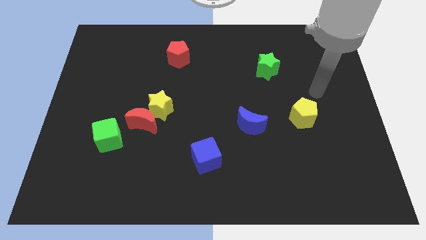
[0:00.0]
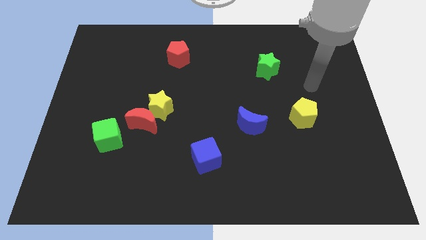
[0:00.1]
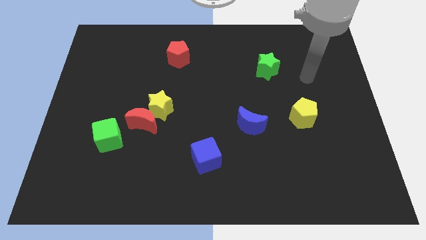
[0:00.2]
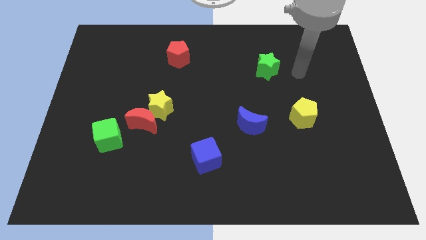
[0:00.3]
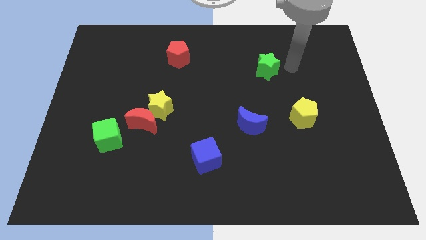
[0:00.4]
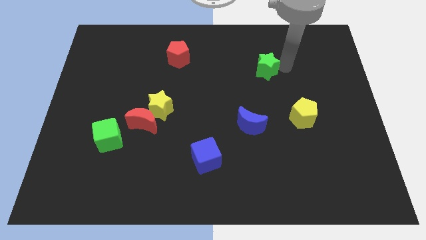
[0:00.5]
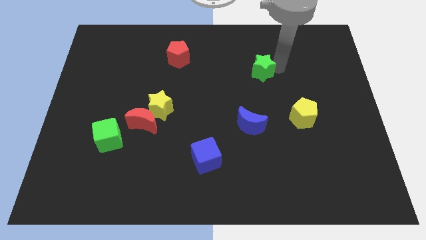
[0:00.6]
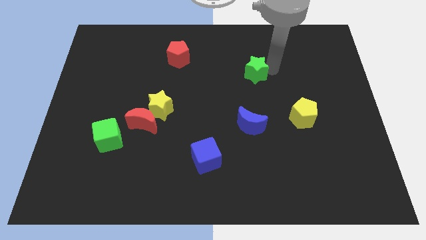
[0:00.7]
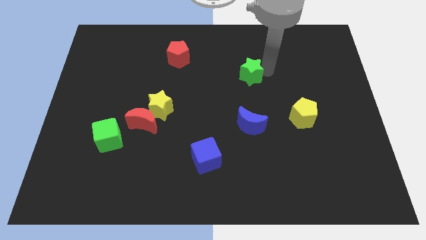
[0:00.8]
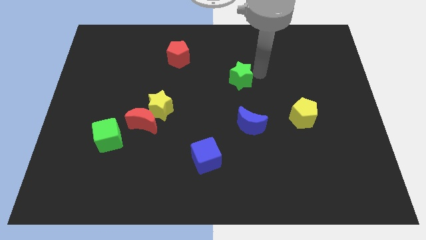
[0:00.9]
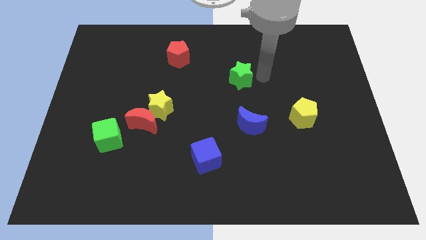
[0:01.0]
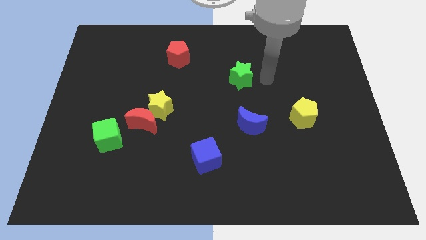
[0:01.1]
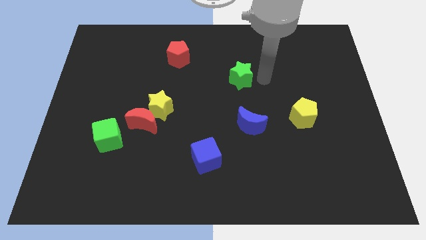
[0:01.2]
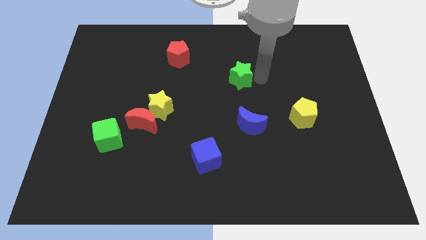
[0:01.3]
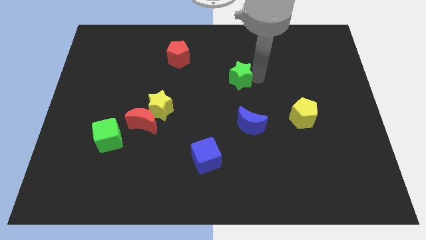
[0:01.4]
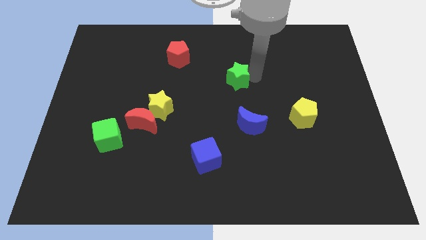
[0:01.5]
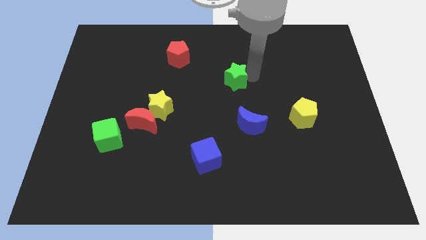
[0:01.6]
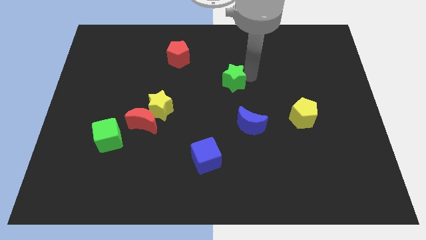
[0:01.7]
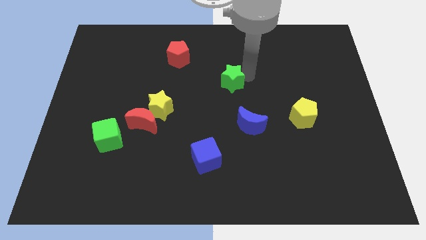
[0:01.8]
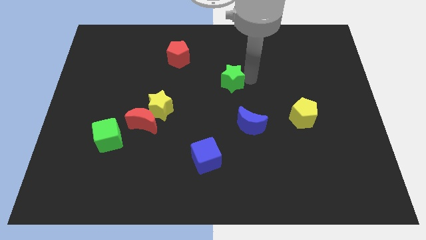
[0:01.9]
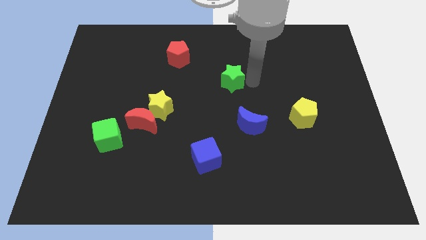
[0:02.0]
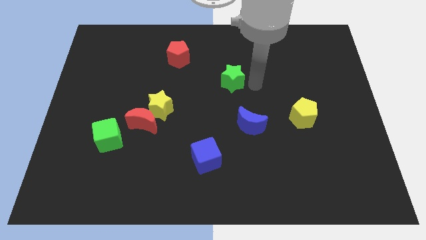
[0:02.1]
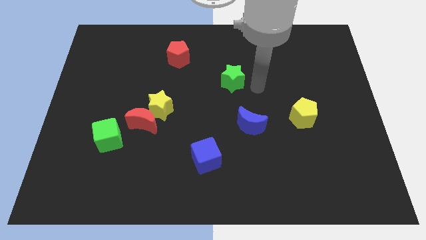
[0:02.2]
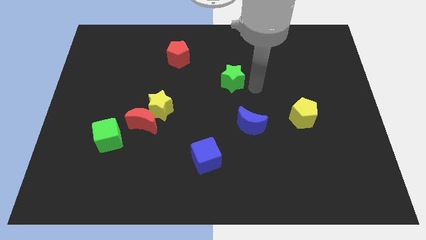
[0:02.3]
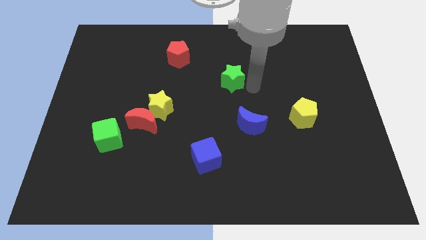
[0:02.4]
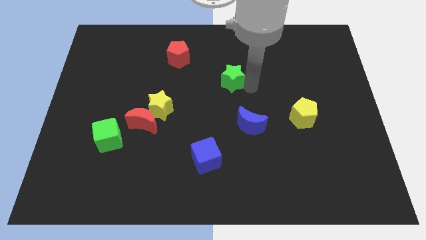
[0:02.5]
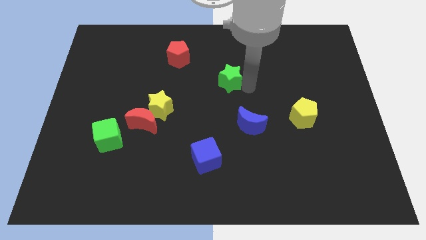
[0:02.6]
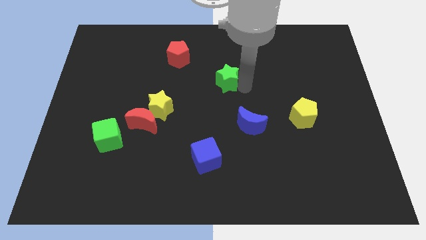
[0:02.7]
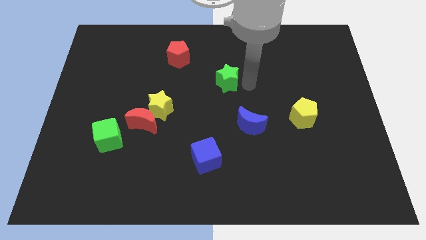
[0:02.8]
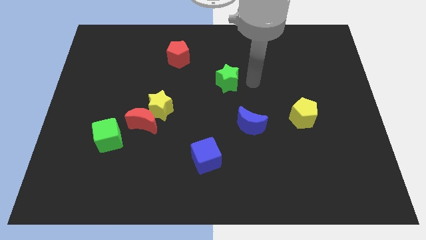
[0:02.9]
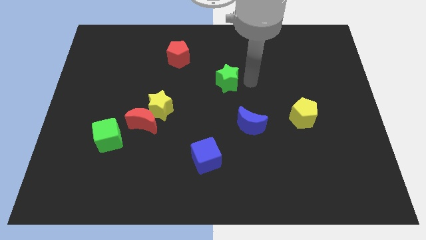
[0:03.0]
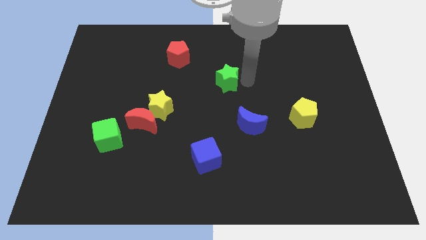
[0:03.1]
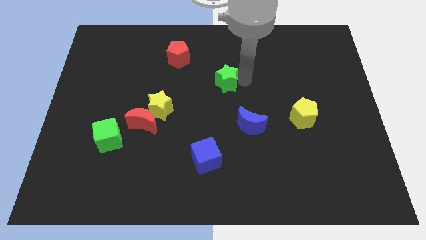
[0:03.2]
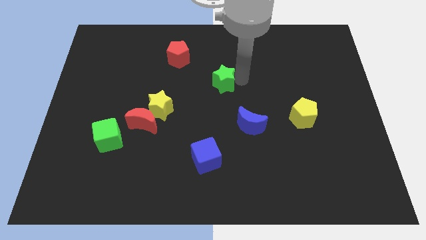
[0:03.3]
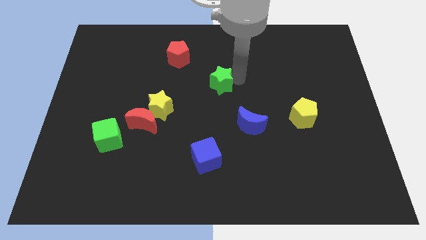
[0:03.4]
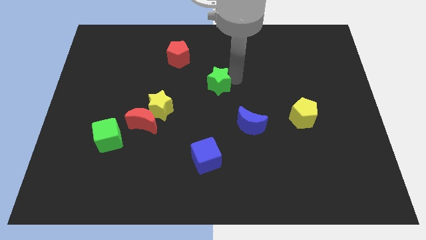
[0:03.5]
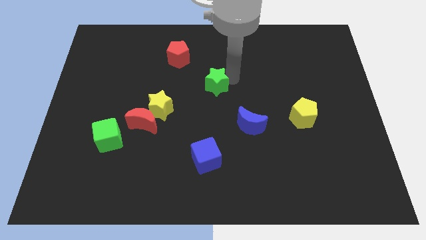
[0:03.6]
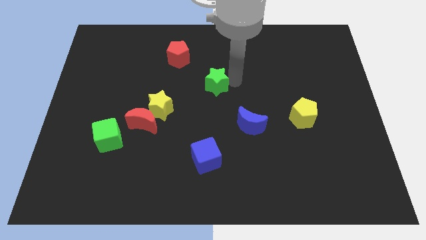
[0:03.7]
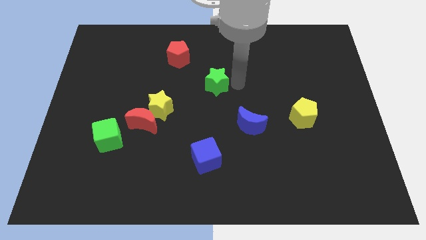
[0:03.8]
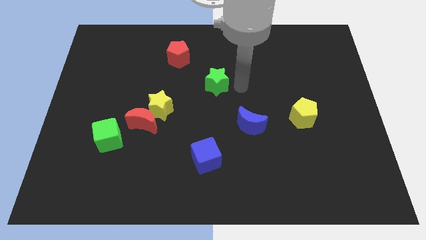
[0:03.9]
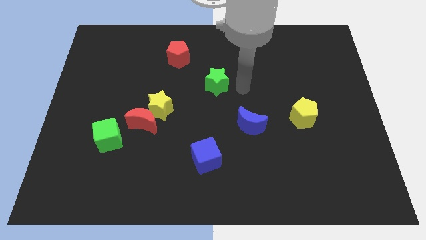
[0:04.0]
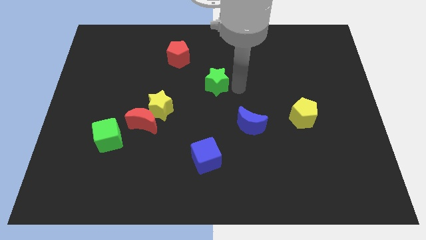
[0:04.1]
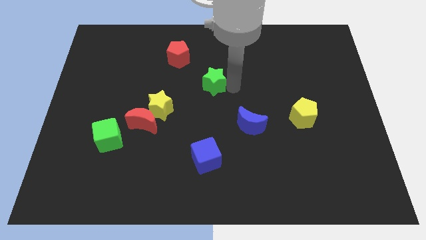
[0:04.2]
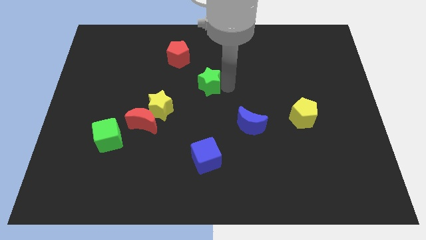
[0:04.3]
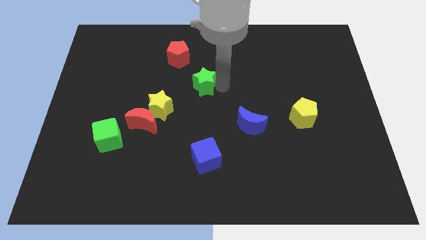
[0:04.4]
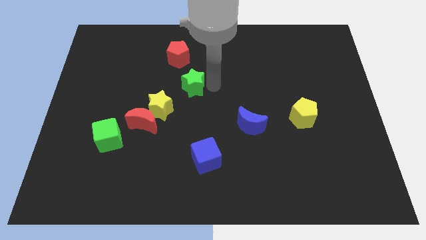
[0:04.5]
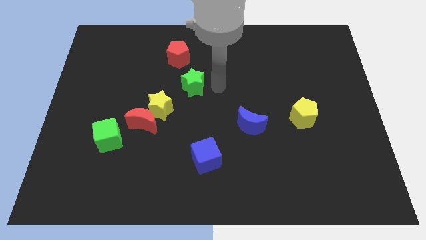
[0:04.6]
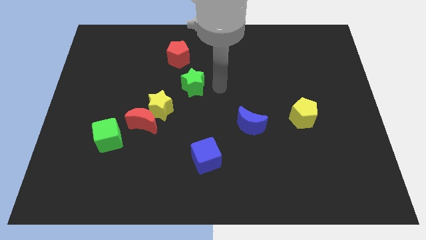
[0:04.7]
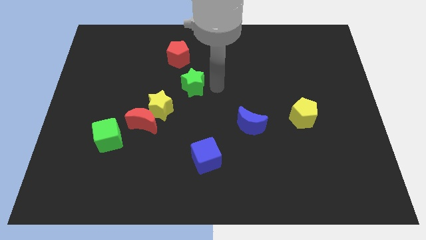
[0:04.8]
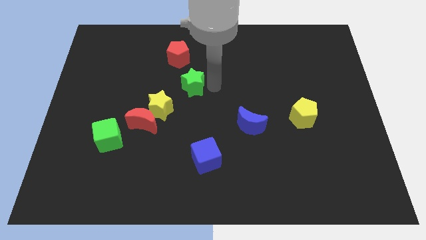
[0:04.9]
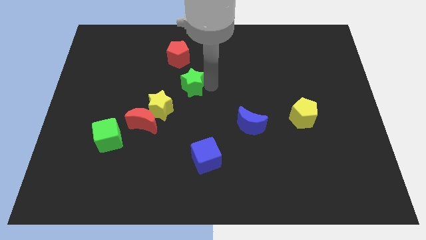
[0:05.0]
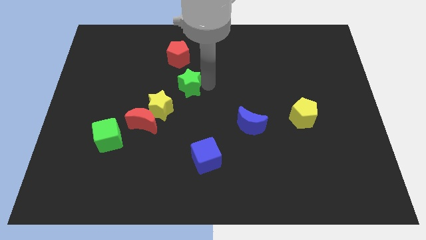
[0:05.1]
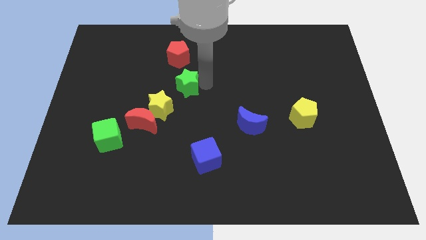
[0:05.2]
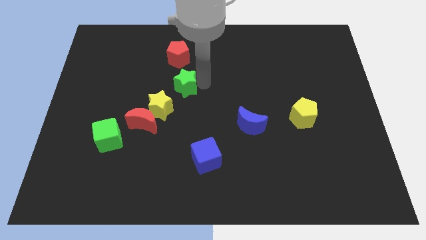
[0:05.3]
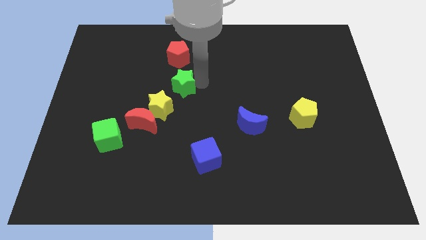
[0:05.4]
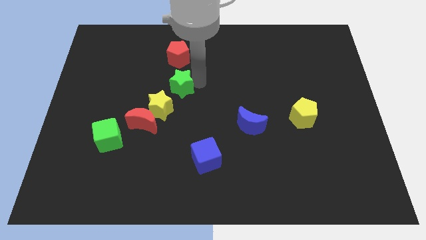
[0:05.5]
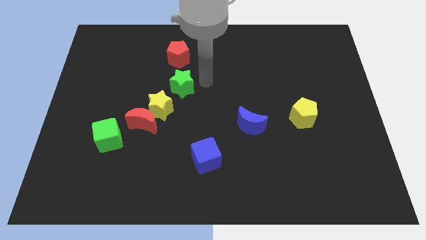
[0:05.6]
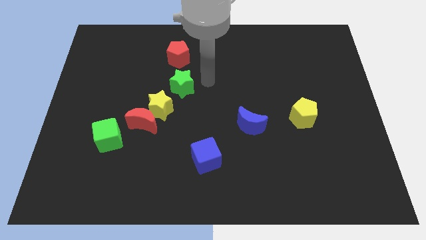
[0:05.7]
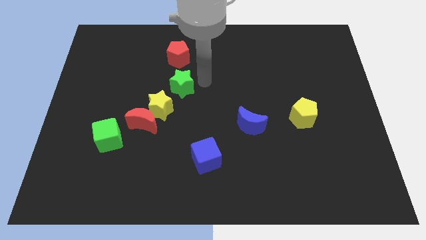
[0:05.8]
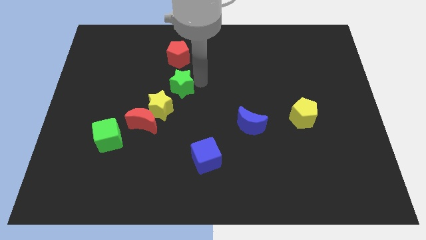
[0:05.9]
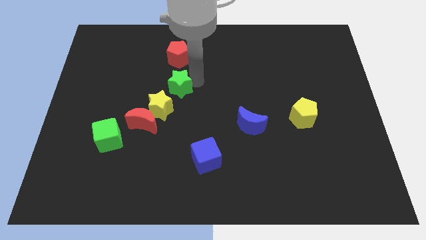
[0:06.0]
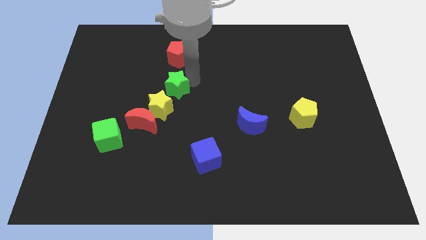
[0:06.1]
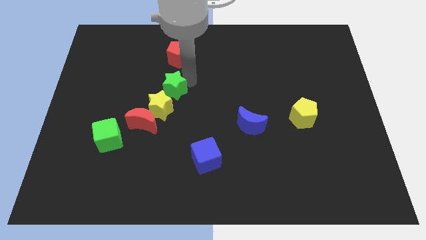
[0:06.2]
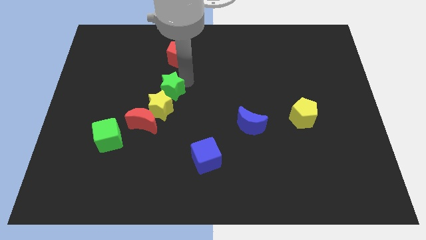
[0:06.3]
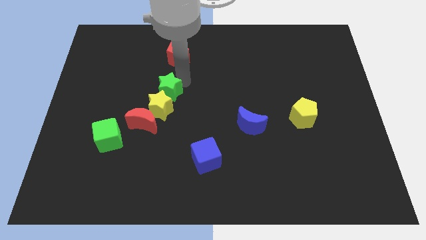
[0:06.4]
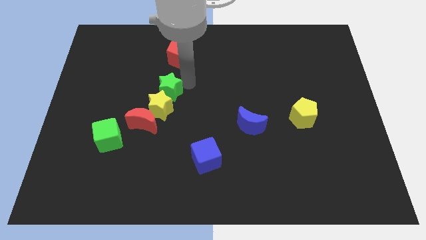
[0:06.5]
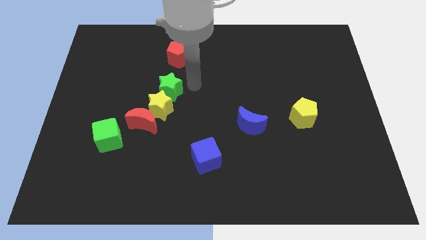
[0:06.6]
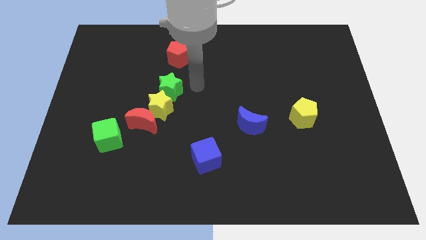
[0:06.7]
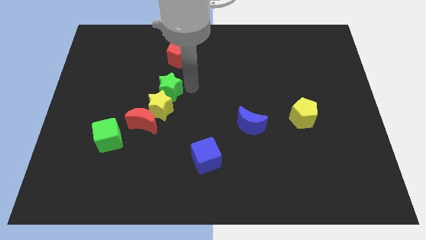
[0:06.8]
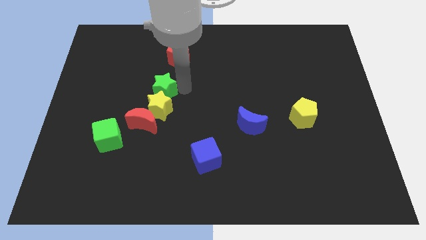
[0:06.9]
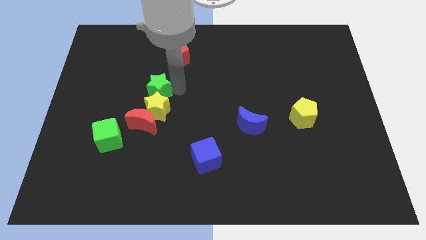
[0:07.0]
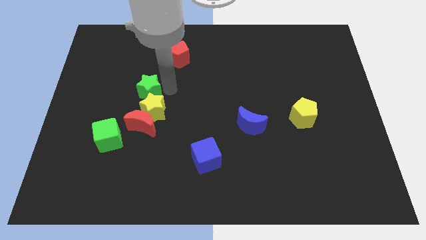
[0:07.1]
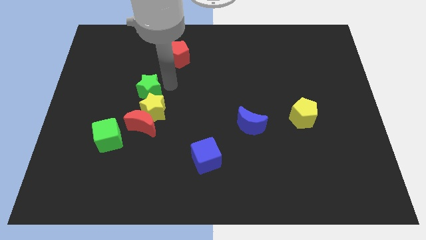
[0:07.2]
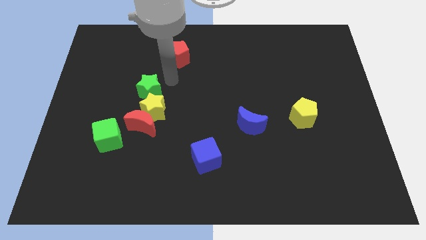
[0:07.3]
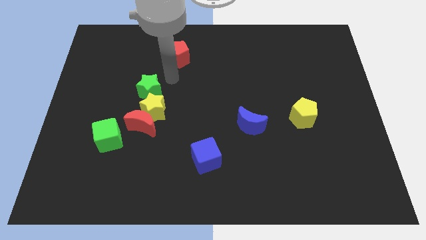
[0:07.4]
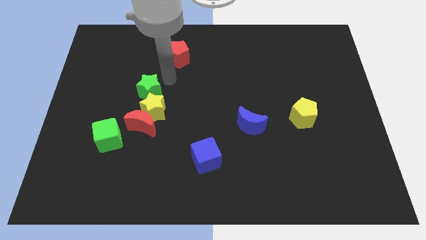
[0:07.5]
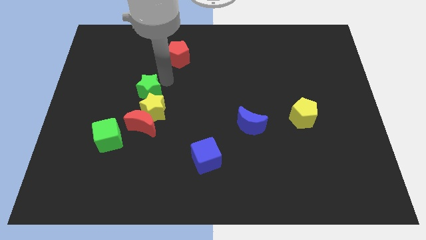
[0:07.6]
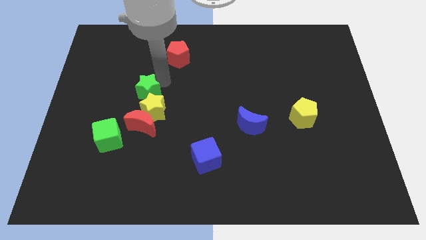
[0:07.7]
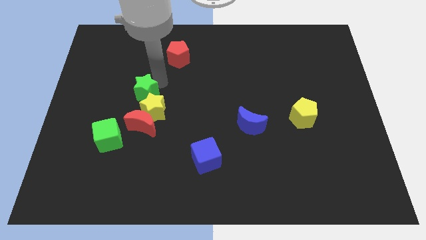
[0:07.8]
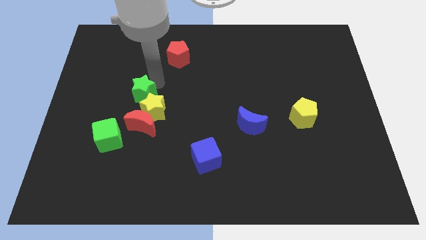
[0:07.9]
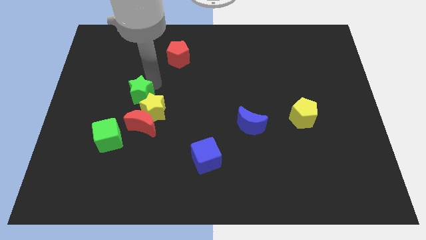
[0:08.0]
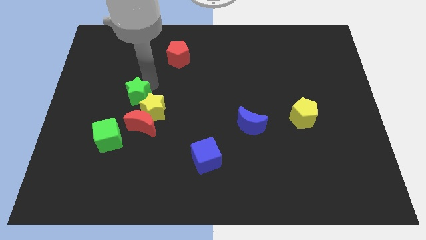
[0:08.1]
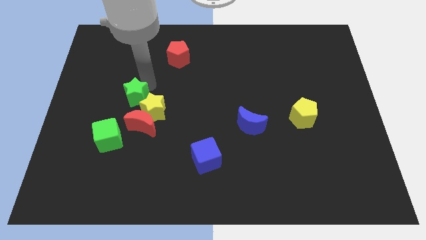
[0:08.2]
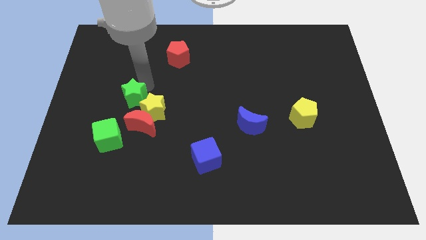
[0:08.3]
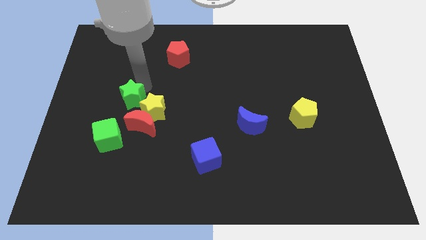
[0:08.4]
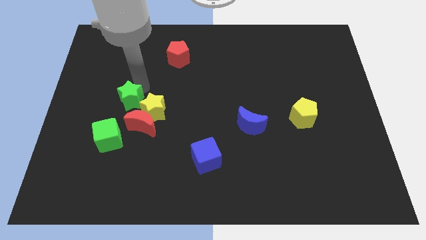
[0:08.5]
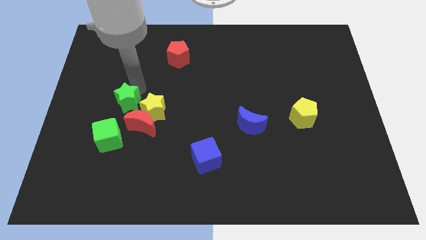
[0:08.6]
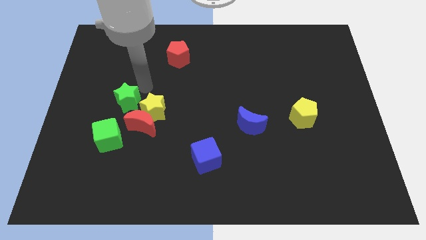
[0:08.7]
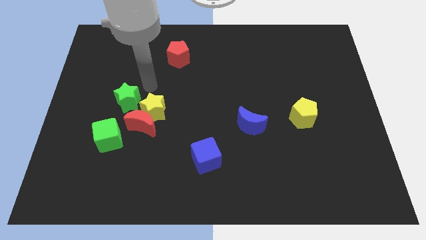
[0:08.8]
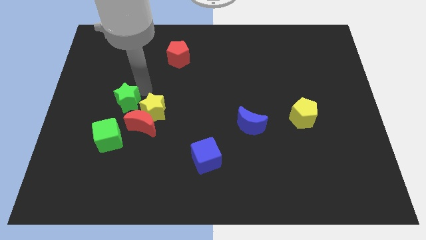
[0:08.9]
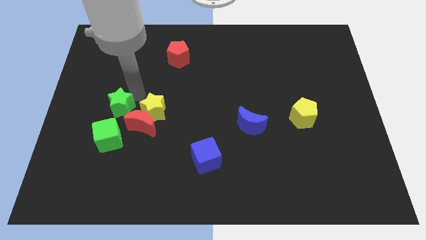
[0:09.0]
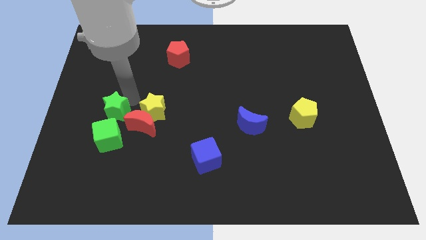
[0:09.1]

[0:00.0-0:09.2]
push the green star just left of the red moon
